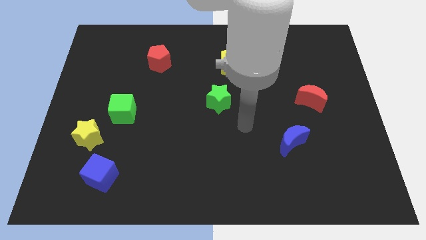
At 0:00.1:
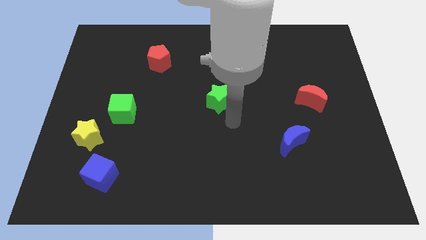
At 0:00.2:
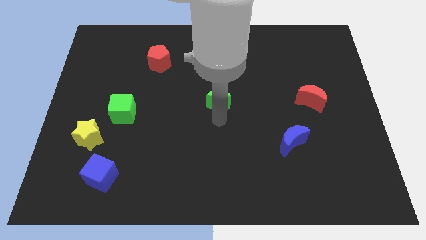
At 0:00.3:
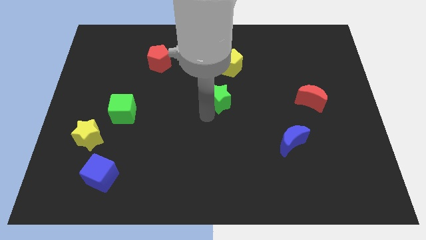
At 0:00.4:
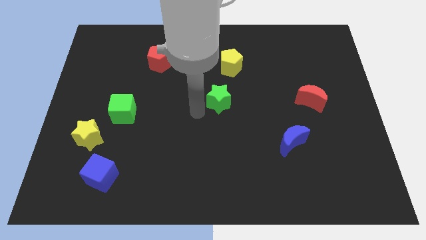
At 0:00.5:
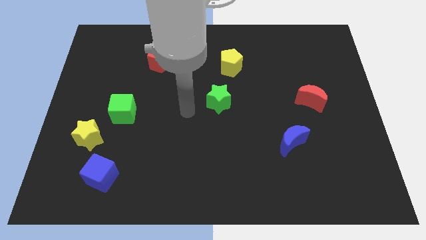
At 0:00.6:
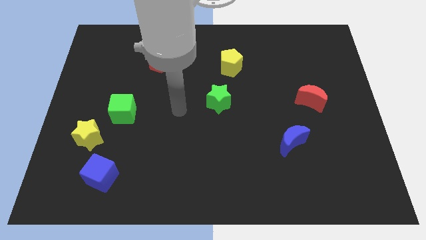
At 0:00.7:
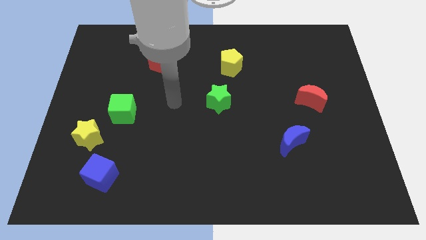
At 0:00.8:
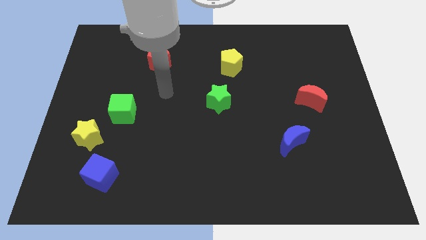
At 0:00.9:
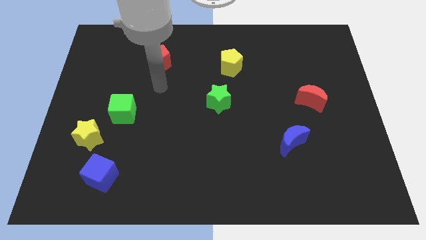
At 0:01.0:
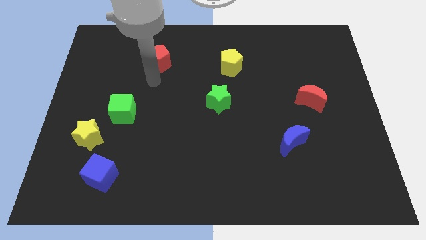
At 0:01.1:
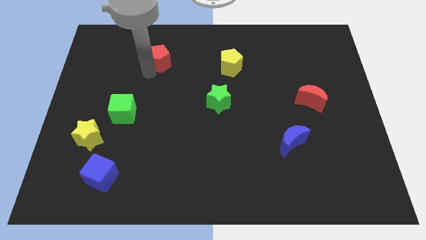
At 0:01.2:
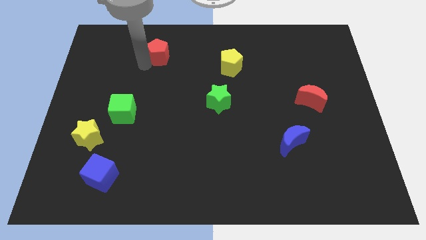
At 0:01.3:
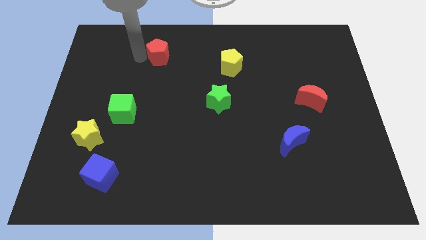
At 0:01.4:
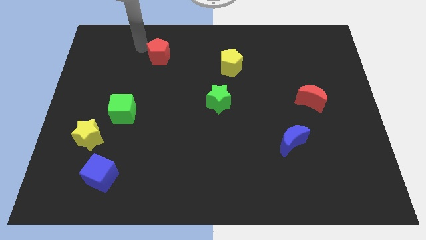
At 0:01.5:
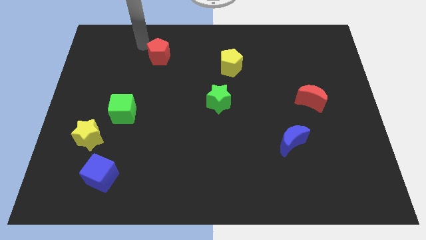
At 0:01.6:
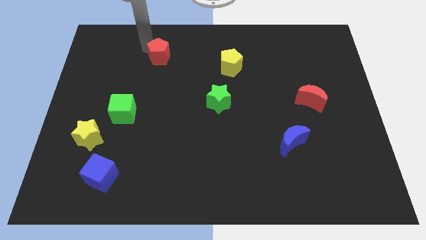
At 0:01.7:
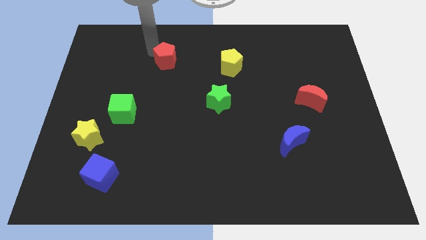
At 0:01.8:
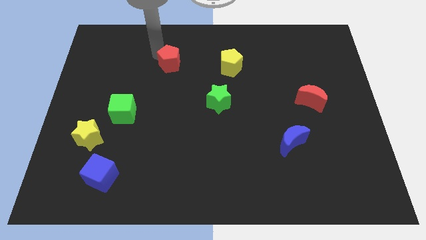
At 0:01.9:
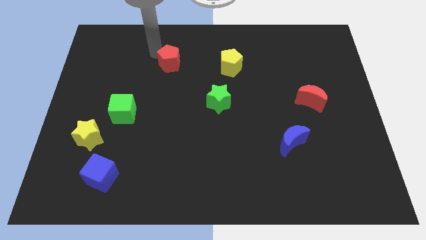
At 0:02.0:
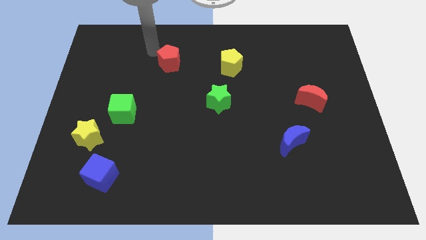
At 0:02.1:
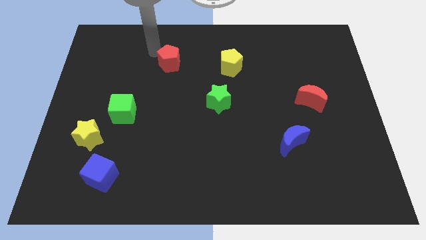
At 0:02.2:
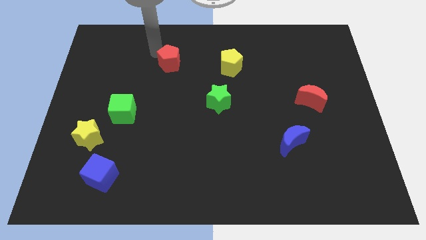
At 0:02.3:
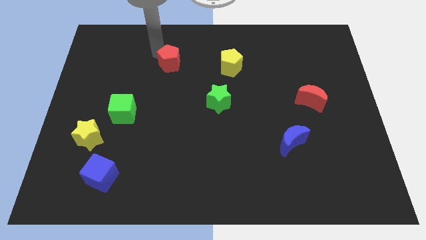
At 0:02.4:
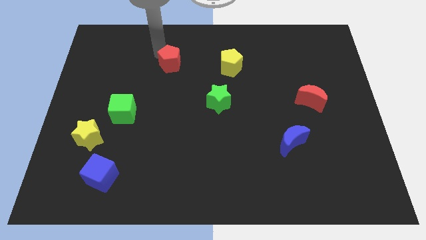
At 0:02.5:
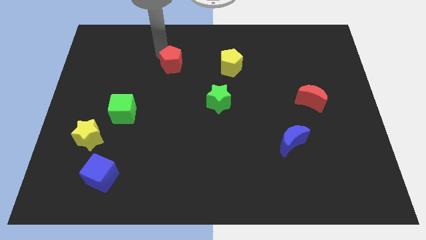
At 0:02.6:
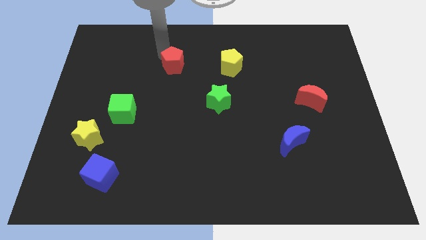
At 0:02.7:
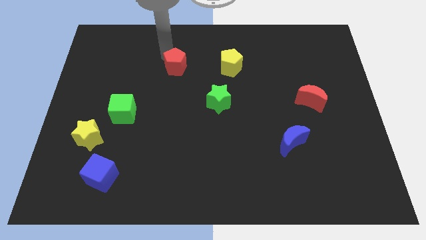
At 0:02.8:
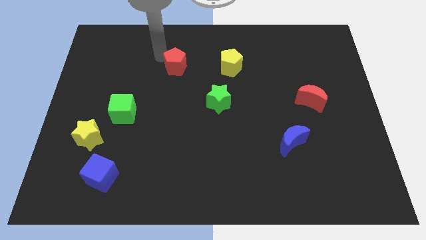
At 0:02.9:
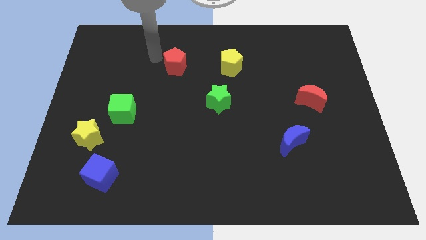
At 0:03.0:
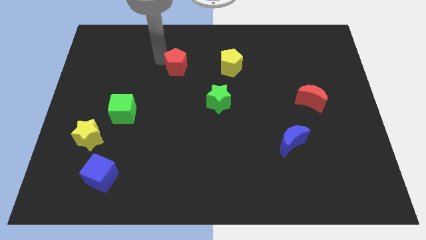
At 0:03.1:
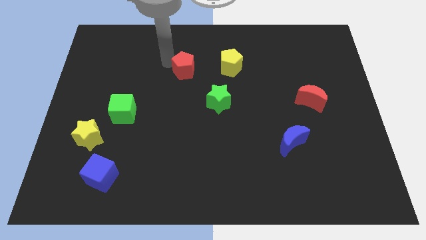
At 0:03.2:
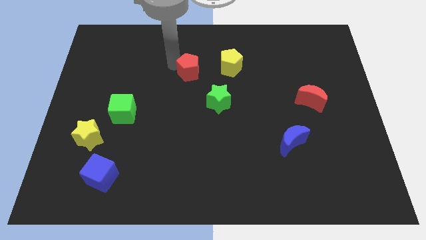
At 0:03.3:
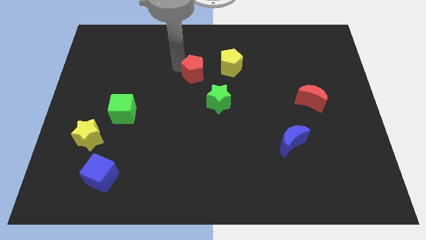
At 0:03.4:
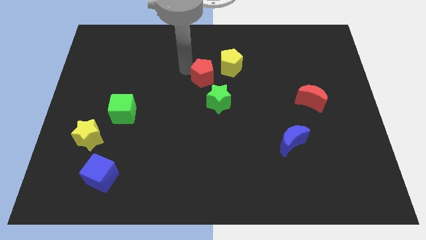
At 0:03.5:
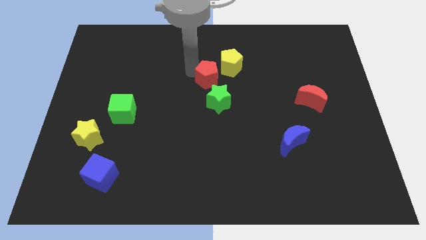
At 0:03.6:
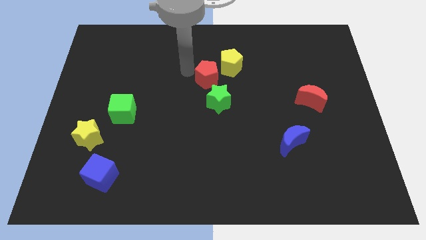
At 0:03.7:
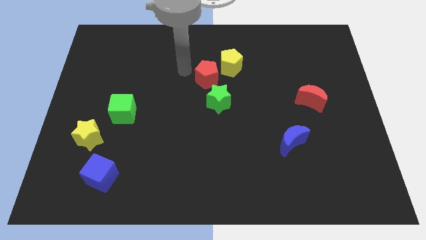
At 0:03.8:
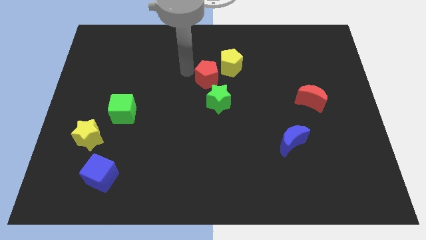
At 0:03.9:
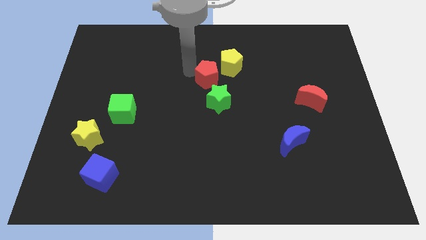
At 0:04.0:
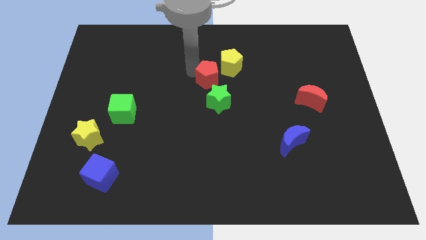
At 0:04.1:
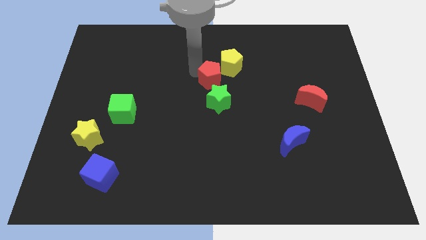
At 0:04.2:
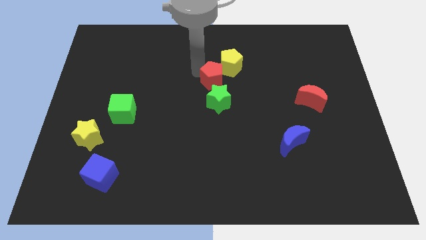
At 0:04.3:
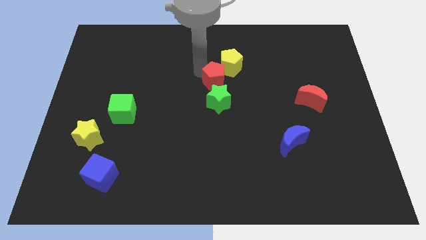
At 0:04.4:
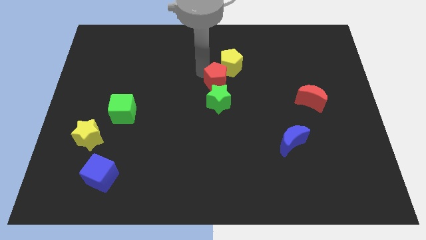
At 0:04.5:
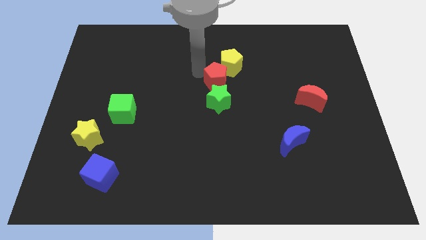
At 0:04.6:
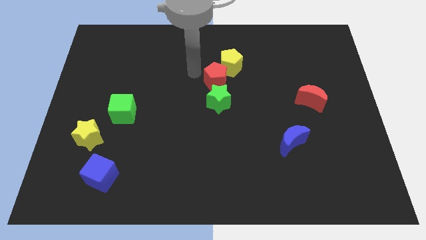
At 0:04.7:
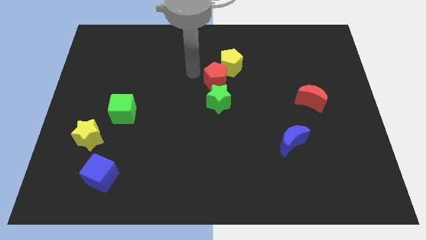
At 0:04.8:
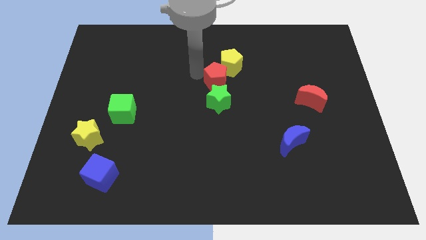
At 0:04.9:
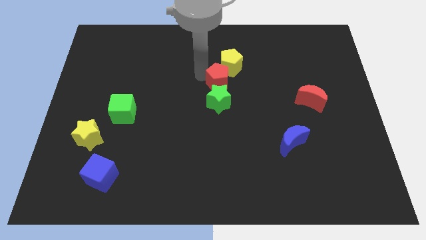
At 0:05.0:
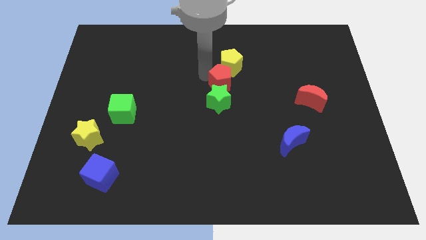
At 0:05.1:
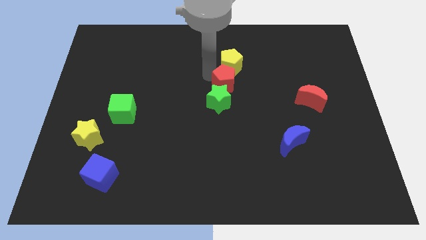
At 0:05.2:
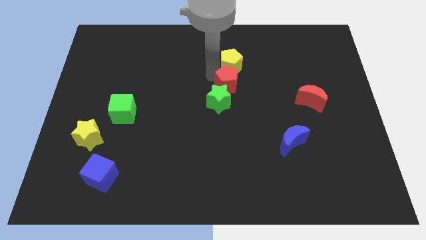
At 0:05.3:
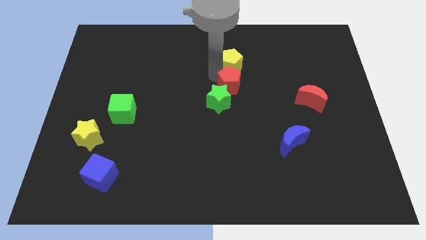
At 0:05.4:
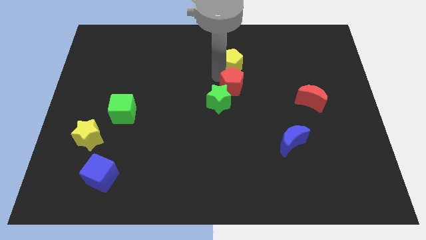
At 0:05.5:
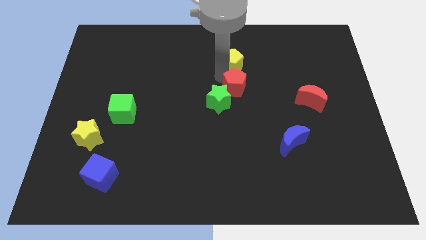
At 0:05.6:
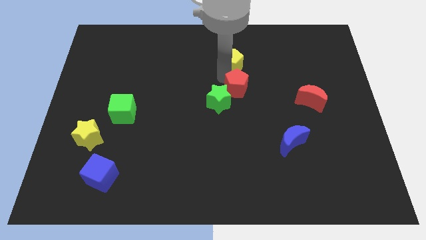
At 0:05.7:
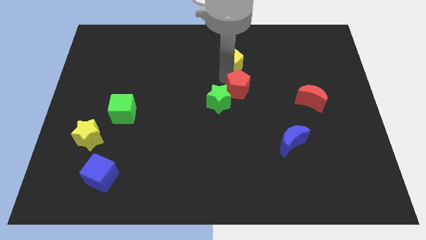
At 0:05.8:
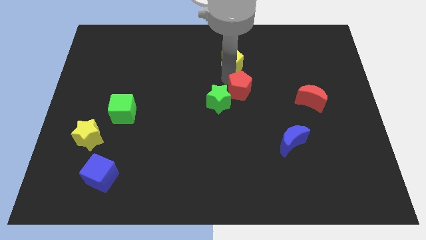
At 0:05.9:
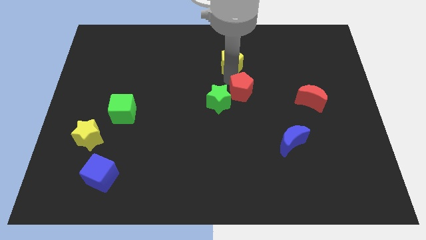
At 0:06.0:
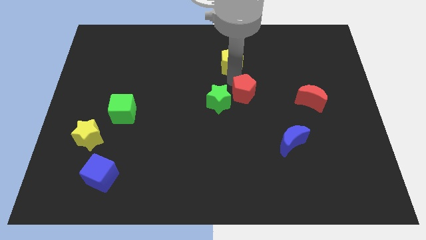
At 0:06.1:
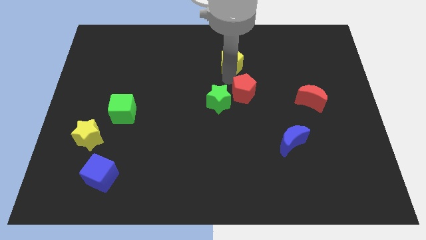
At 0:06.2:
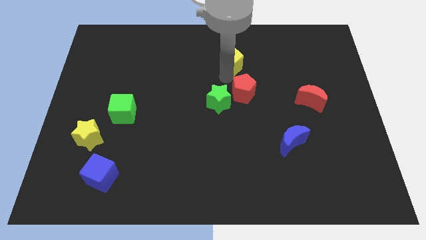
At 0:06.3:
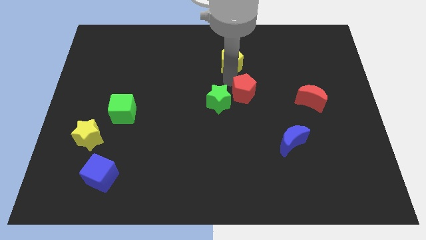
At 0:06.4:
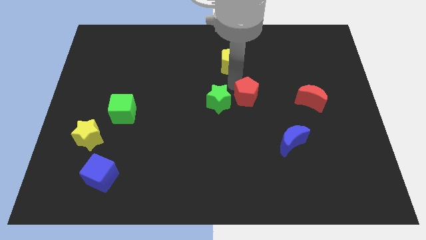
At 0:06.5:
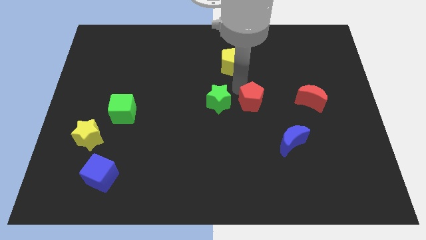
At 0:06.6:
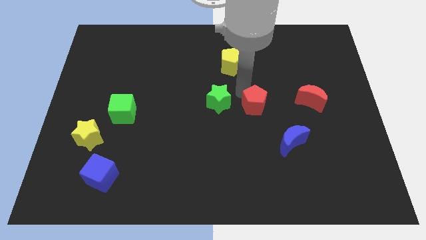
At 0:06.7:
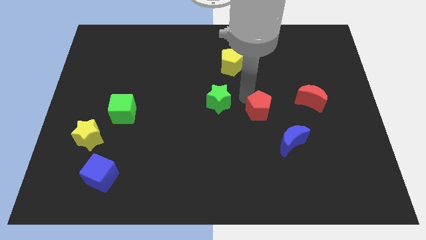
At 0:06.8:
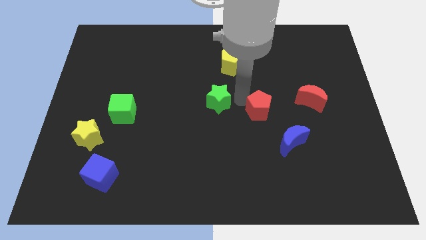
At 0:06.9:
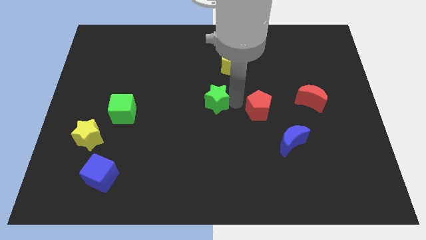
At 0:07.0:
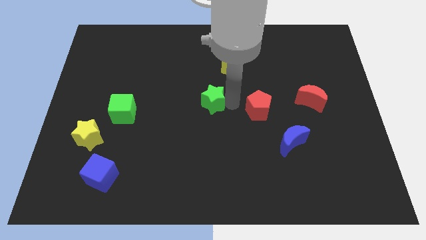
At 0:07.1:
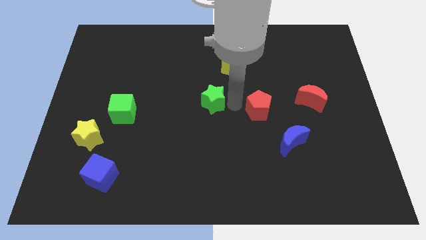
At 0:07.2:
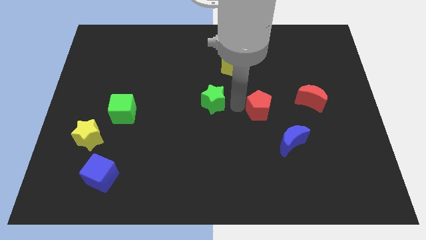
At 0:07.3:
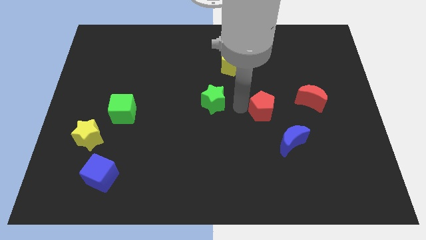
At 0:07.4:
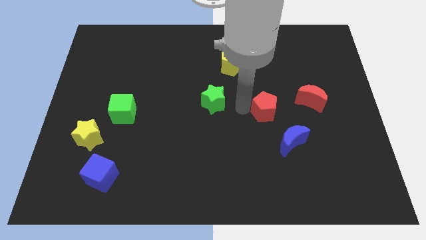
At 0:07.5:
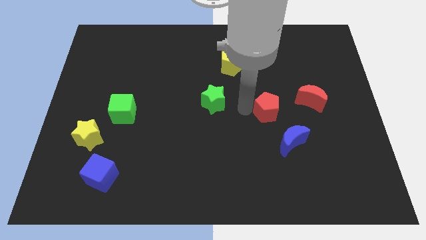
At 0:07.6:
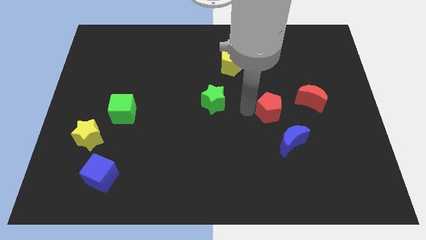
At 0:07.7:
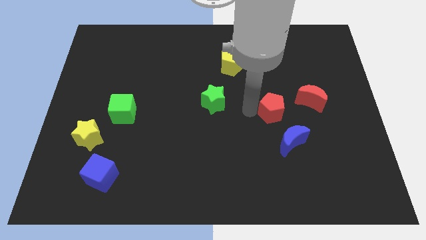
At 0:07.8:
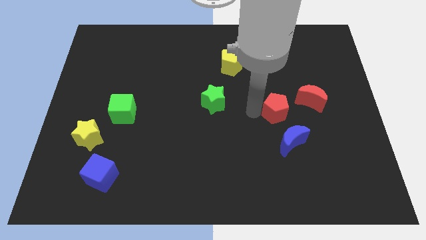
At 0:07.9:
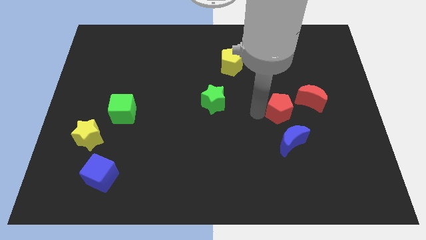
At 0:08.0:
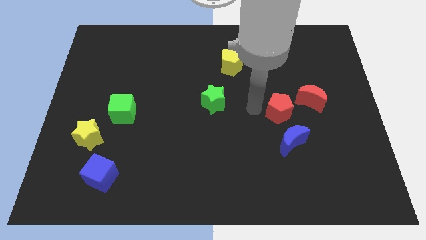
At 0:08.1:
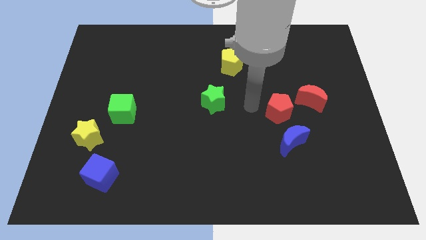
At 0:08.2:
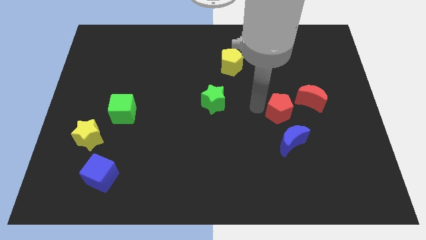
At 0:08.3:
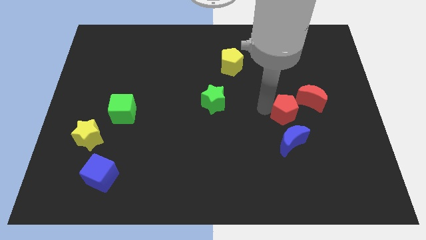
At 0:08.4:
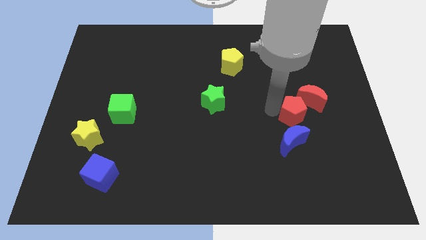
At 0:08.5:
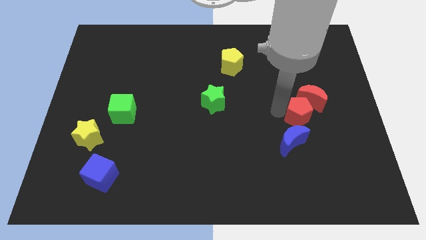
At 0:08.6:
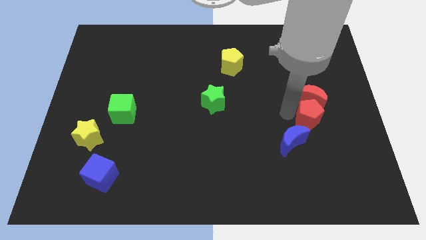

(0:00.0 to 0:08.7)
put the red pentagon to the bottom right side of the red moon
